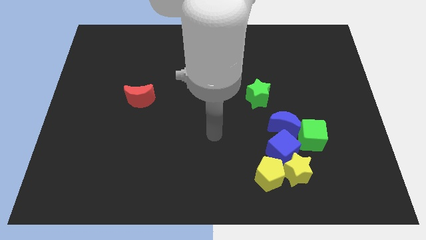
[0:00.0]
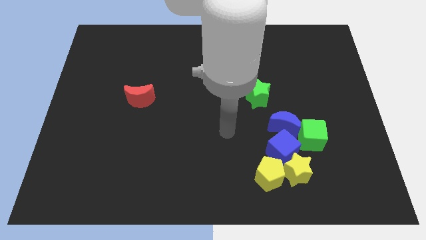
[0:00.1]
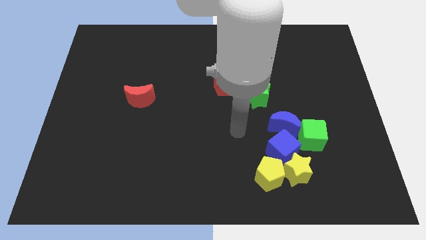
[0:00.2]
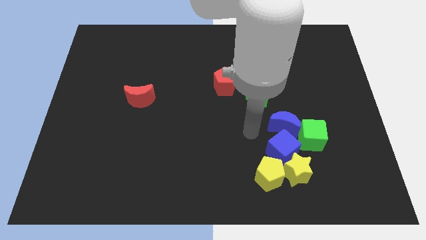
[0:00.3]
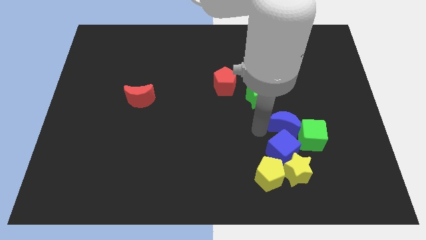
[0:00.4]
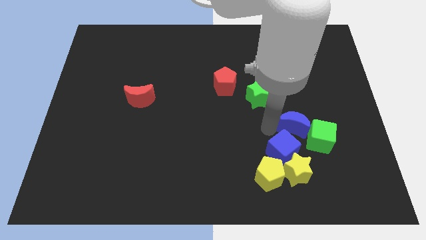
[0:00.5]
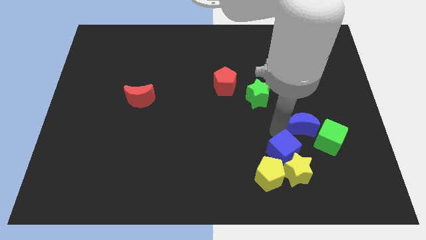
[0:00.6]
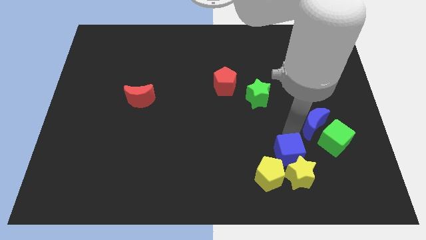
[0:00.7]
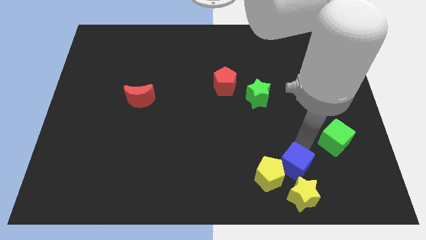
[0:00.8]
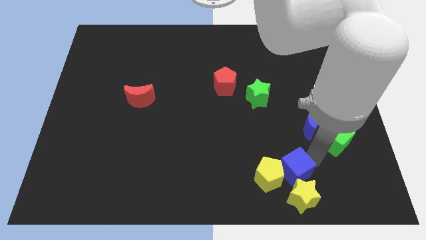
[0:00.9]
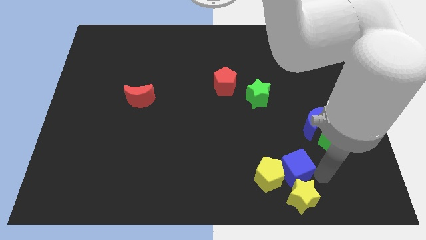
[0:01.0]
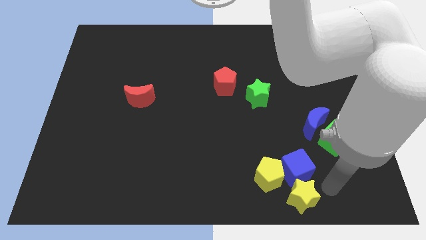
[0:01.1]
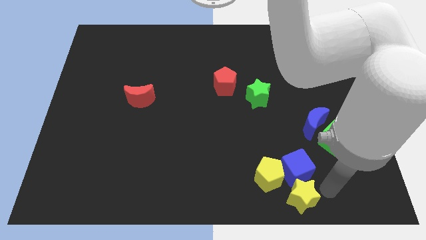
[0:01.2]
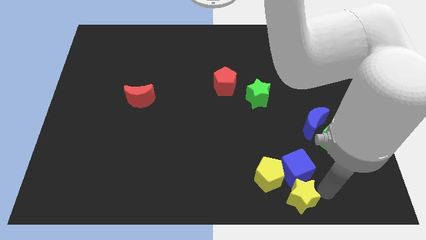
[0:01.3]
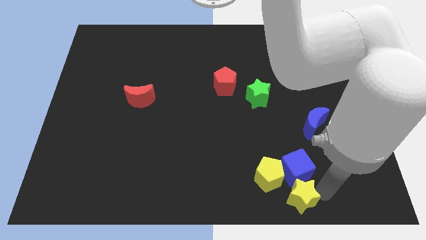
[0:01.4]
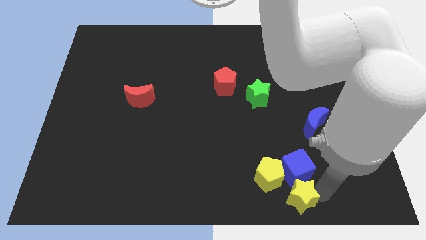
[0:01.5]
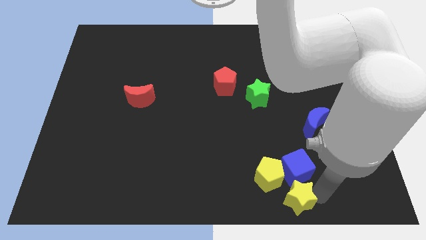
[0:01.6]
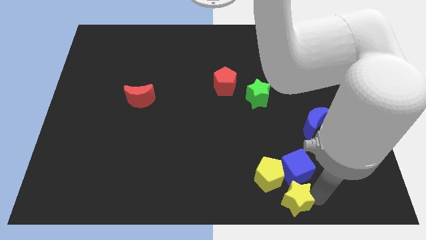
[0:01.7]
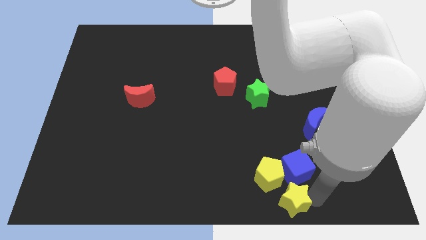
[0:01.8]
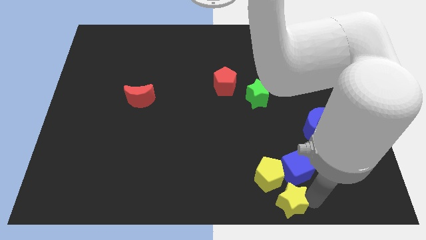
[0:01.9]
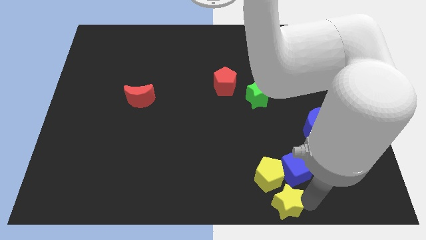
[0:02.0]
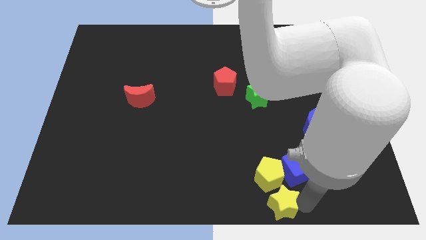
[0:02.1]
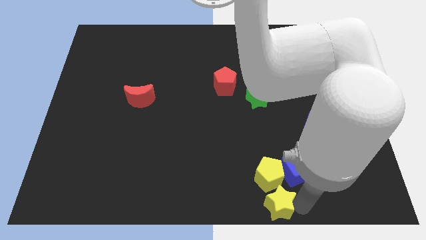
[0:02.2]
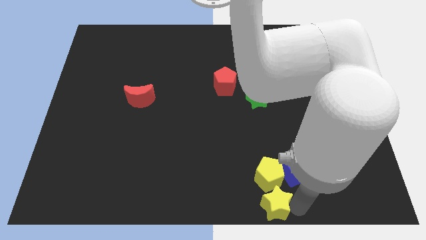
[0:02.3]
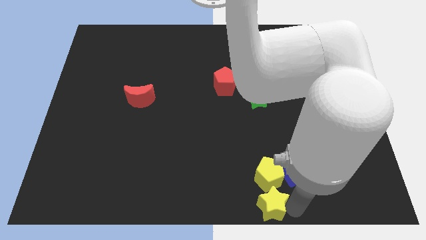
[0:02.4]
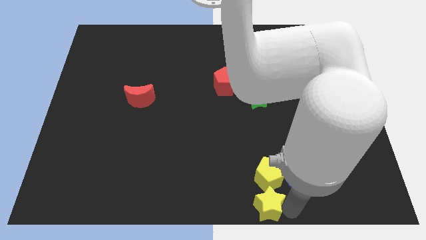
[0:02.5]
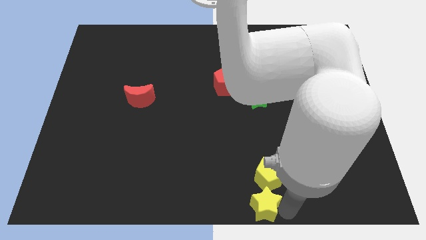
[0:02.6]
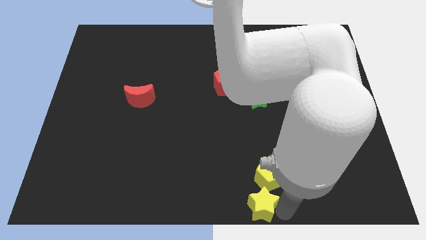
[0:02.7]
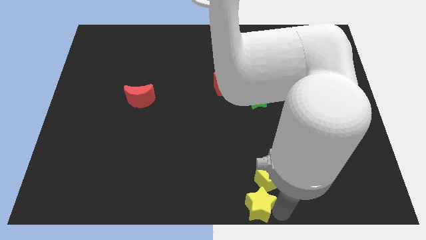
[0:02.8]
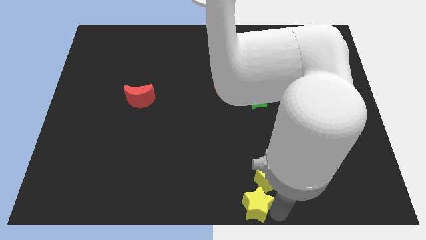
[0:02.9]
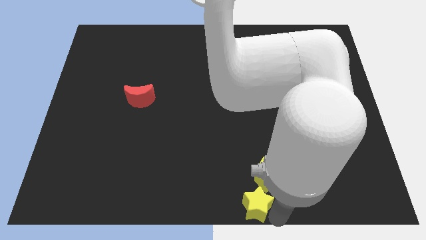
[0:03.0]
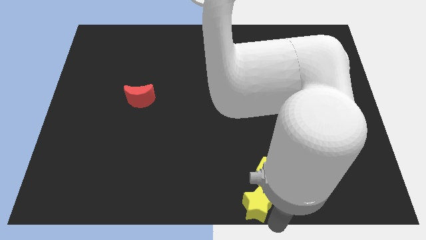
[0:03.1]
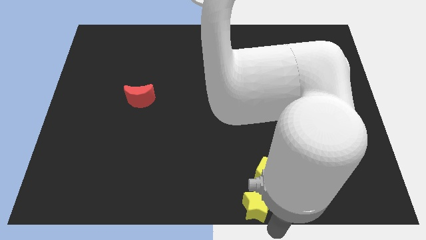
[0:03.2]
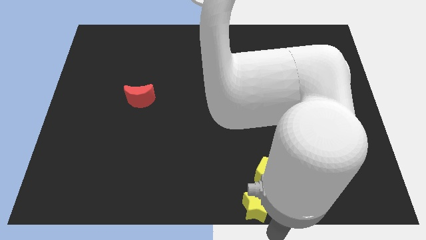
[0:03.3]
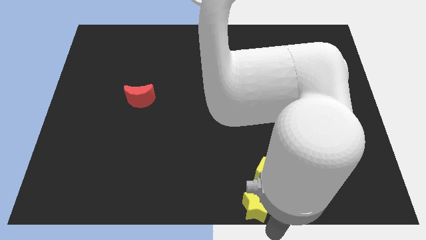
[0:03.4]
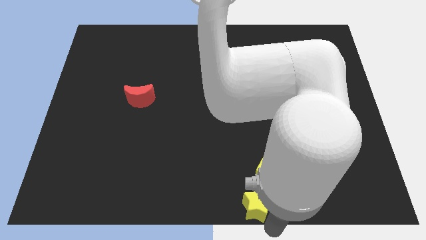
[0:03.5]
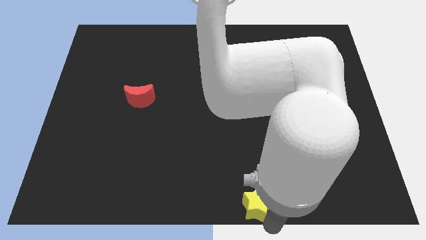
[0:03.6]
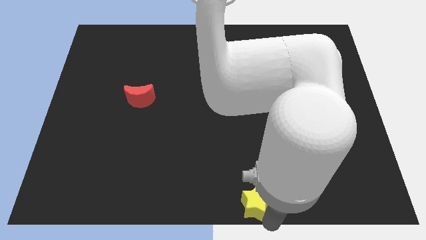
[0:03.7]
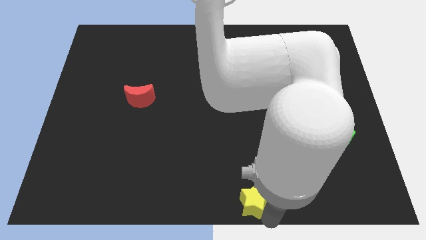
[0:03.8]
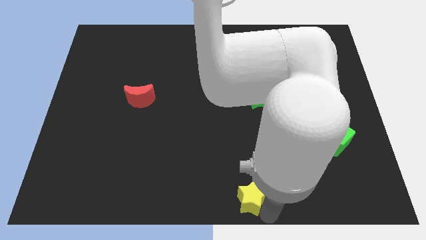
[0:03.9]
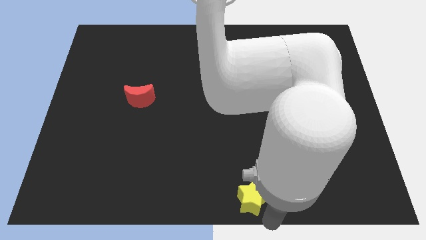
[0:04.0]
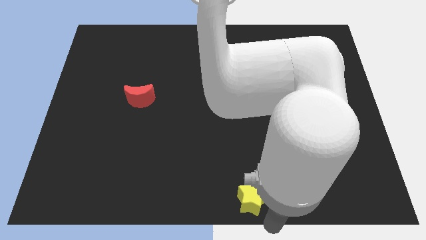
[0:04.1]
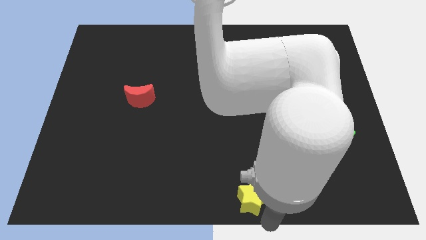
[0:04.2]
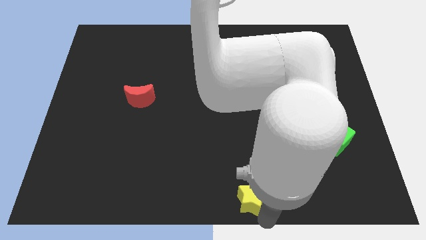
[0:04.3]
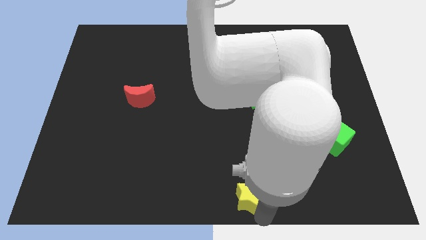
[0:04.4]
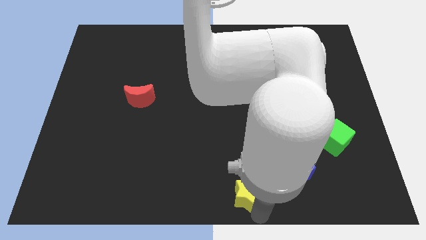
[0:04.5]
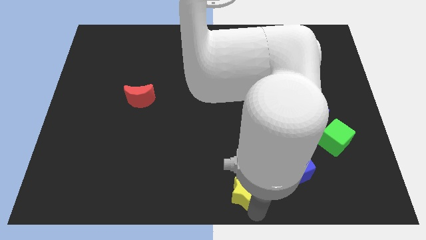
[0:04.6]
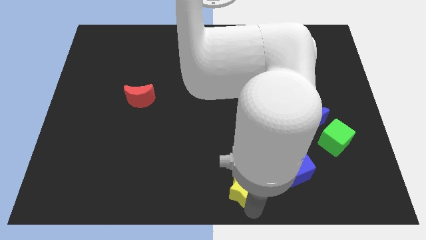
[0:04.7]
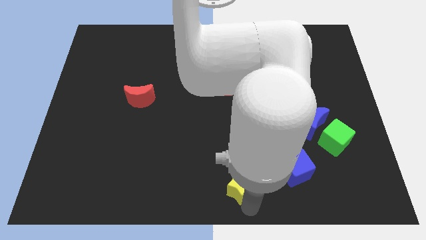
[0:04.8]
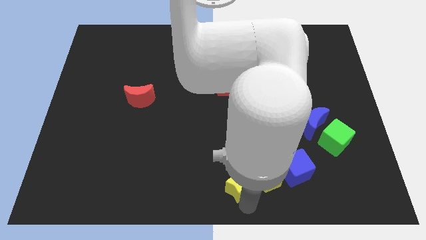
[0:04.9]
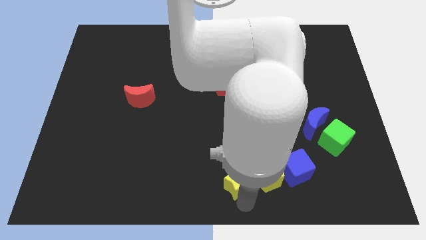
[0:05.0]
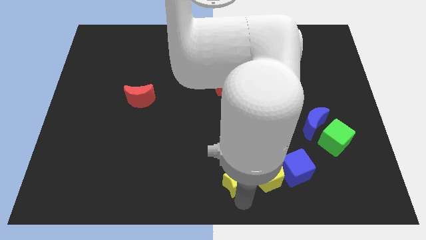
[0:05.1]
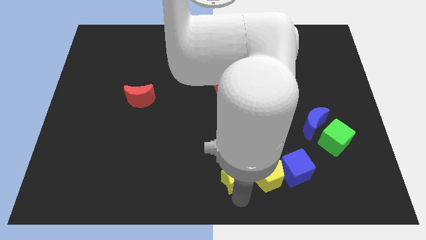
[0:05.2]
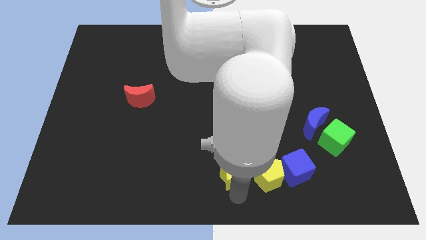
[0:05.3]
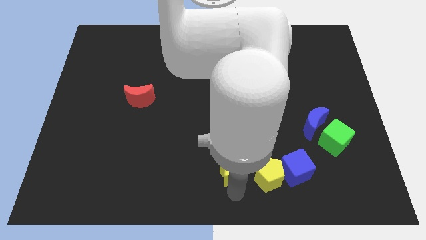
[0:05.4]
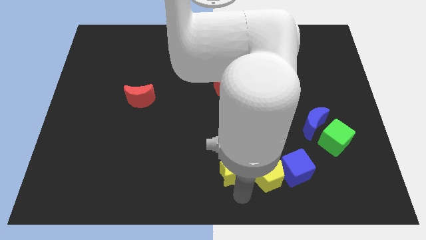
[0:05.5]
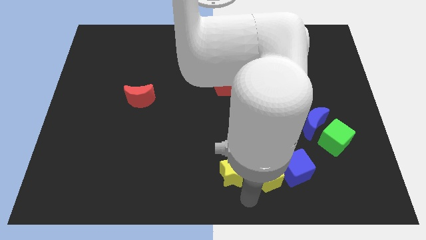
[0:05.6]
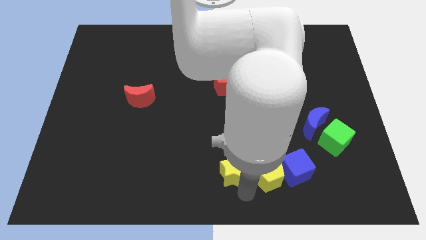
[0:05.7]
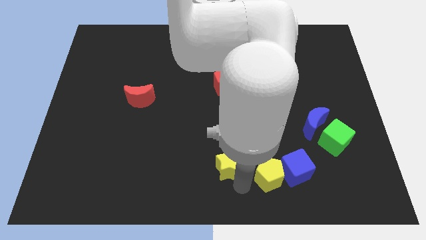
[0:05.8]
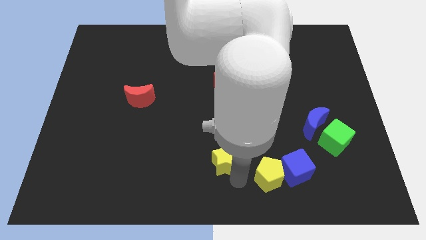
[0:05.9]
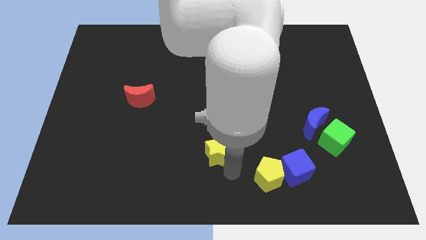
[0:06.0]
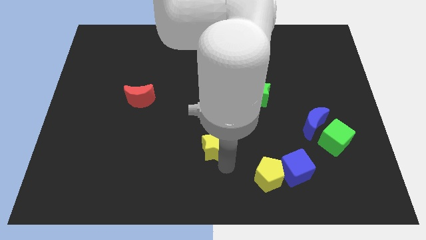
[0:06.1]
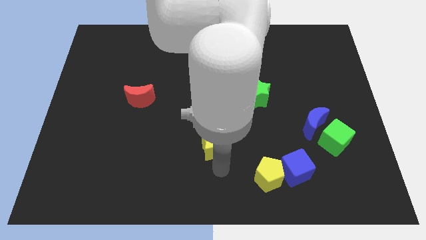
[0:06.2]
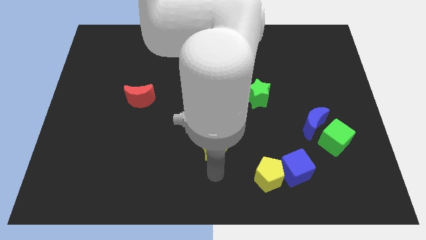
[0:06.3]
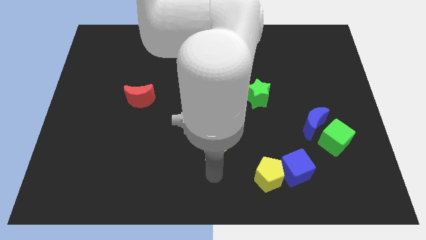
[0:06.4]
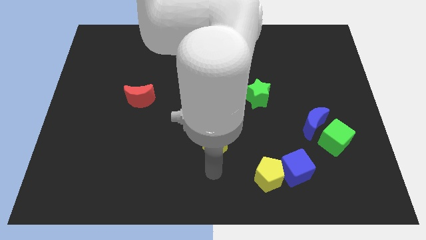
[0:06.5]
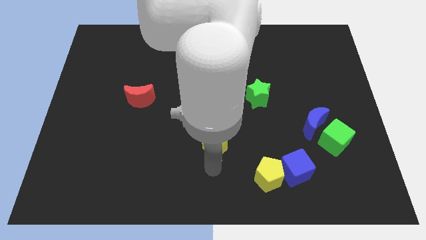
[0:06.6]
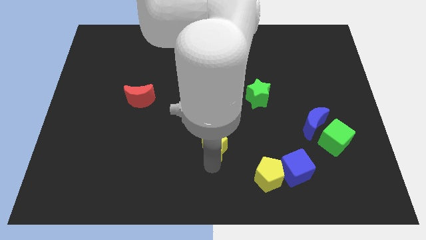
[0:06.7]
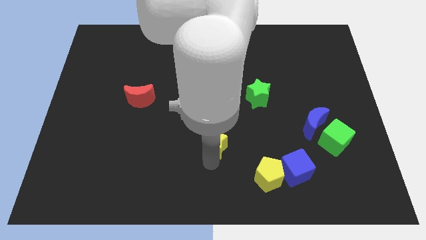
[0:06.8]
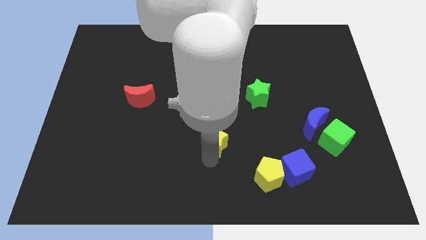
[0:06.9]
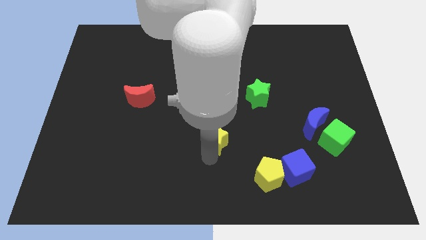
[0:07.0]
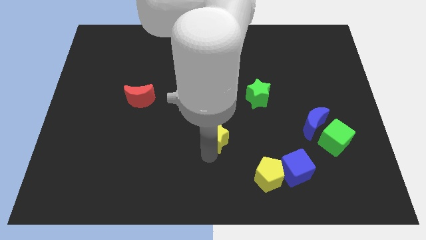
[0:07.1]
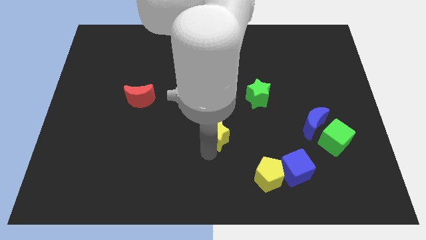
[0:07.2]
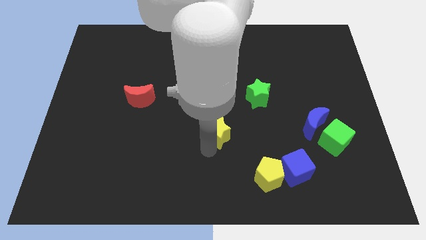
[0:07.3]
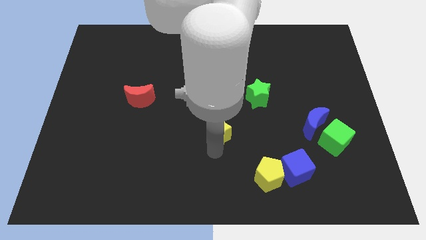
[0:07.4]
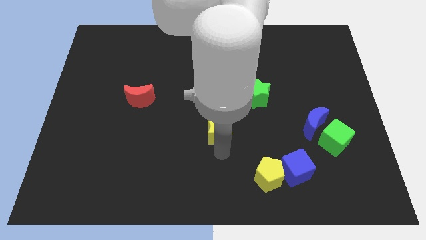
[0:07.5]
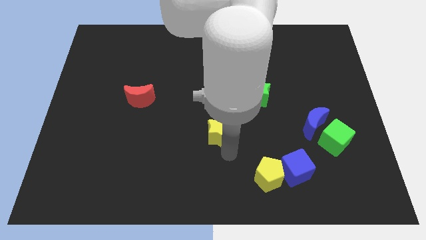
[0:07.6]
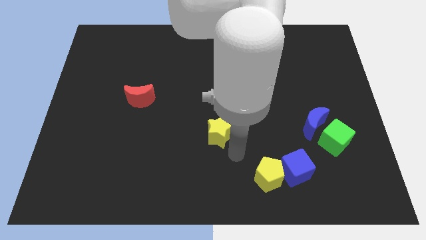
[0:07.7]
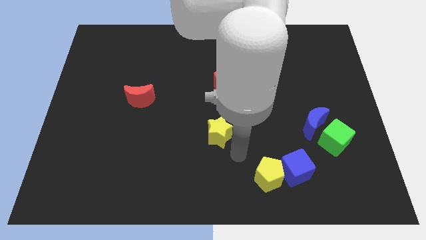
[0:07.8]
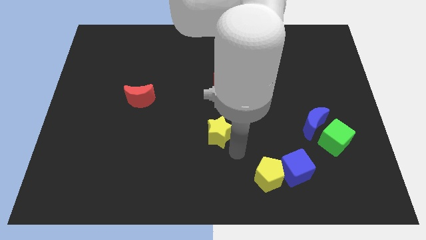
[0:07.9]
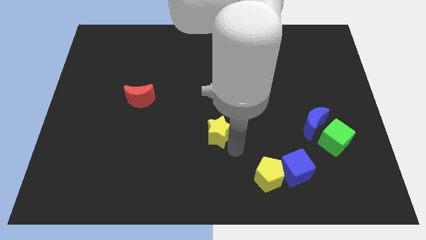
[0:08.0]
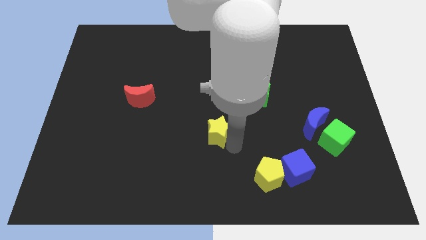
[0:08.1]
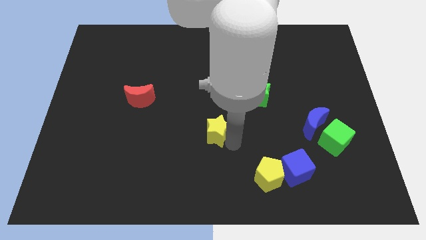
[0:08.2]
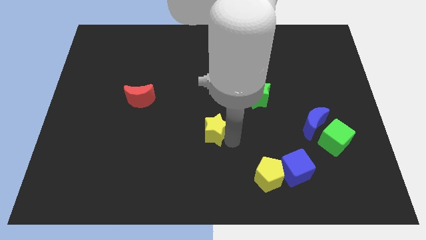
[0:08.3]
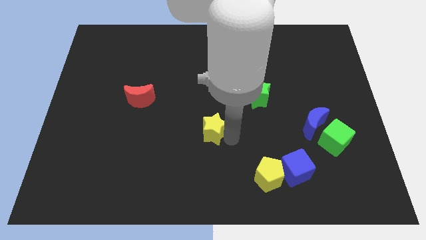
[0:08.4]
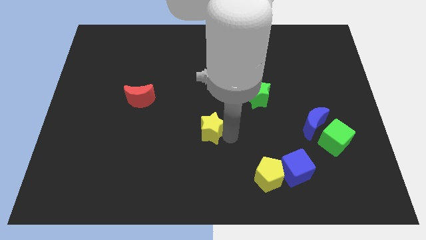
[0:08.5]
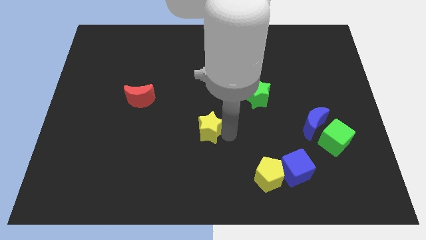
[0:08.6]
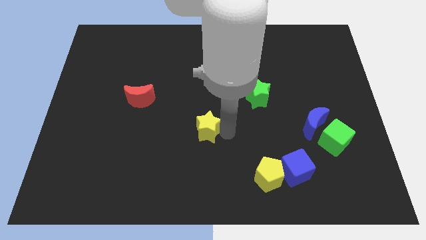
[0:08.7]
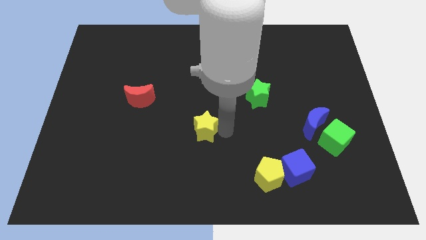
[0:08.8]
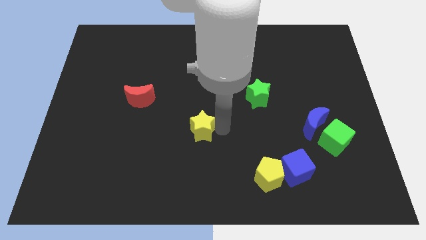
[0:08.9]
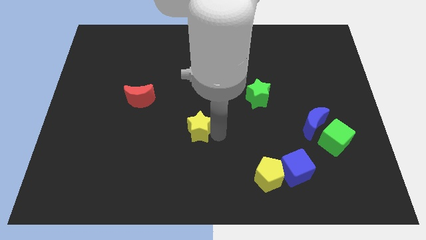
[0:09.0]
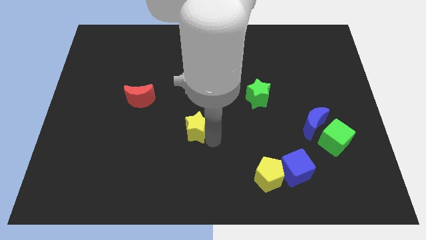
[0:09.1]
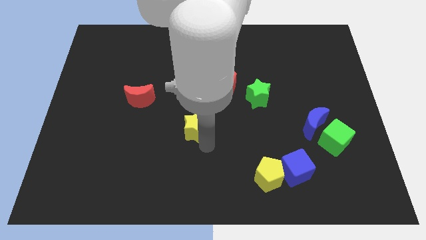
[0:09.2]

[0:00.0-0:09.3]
push the yellow star up and left
